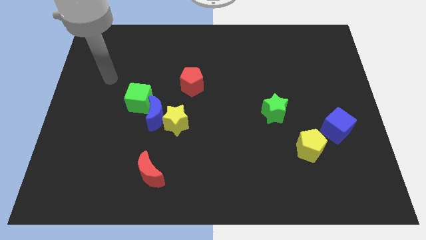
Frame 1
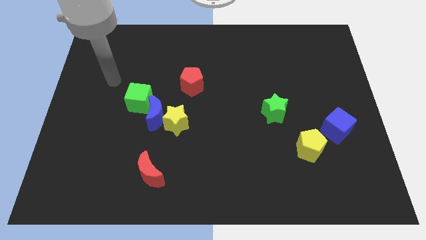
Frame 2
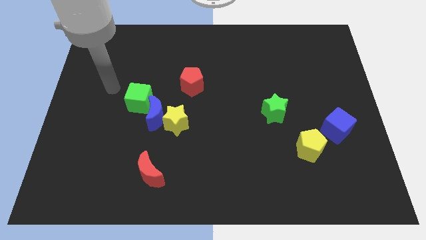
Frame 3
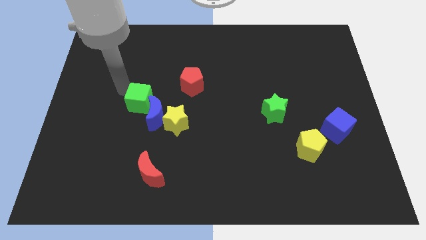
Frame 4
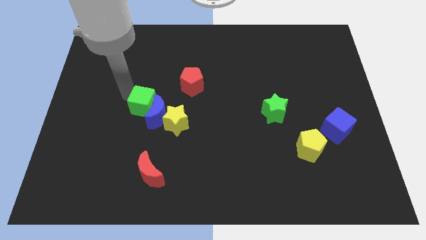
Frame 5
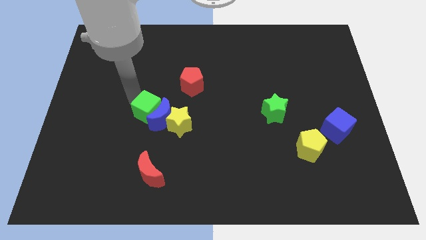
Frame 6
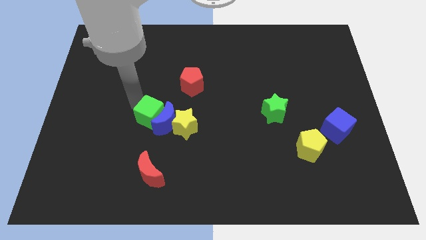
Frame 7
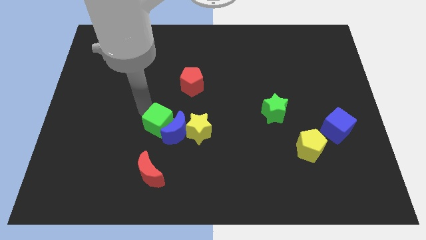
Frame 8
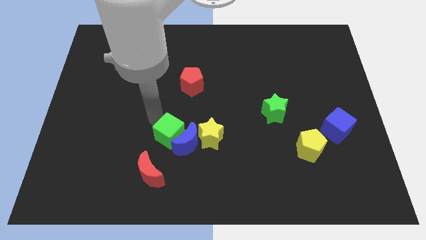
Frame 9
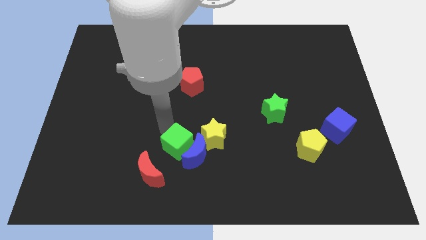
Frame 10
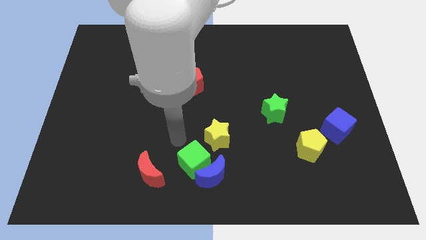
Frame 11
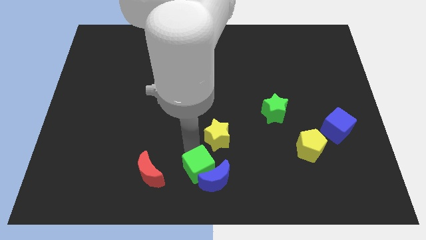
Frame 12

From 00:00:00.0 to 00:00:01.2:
move the yellow star away from the blue moon

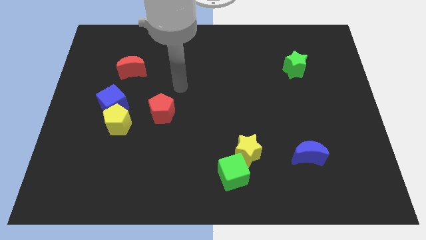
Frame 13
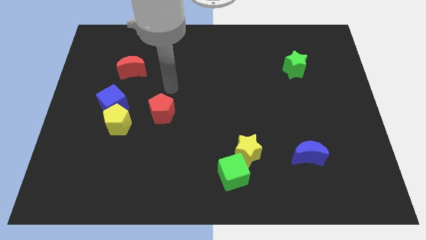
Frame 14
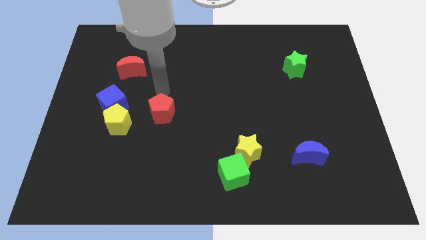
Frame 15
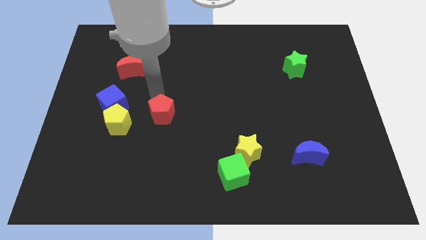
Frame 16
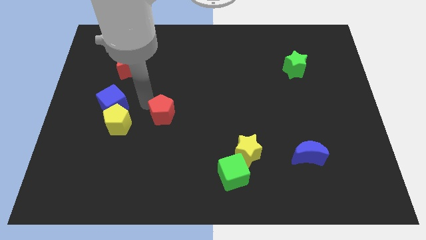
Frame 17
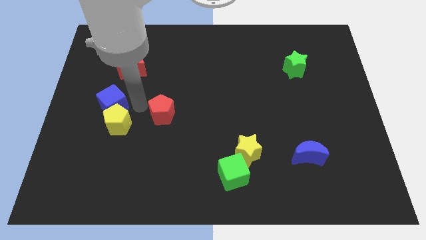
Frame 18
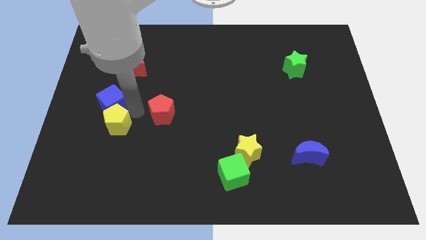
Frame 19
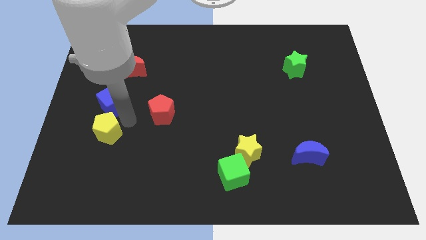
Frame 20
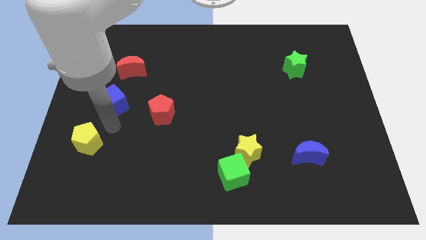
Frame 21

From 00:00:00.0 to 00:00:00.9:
move the blue cube away from the yellow pentagon

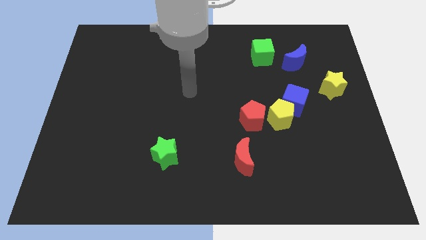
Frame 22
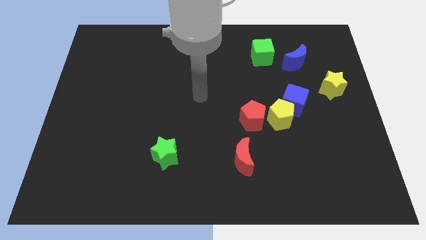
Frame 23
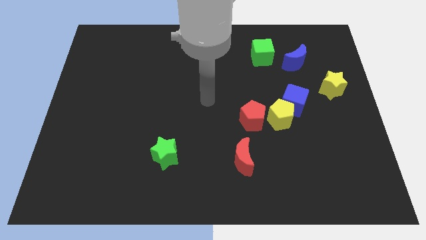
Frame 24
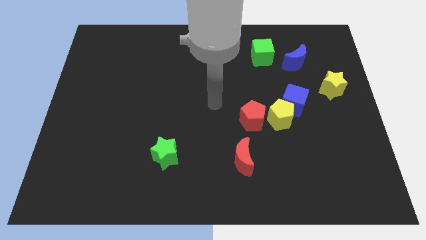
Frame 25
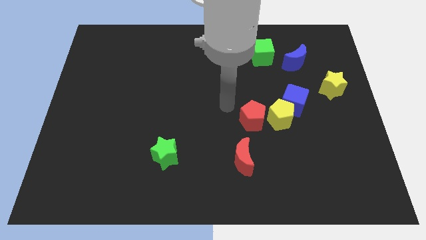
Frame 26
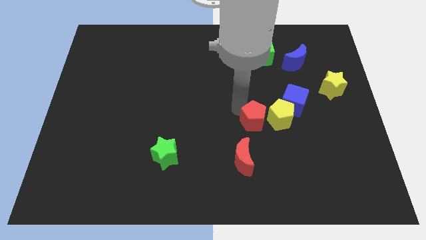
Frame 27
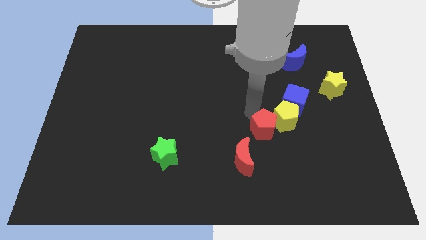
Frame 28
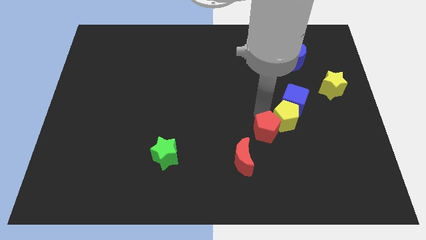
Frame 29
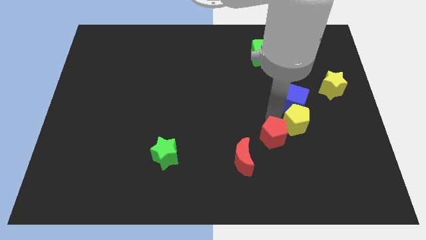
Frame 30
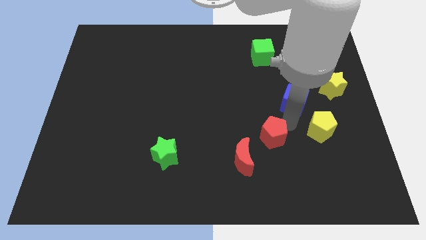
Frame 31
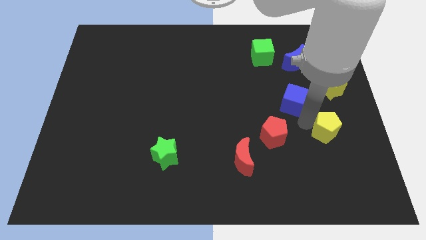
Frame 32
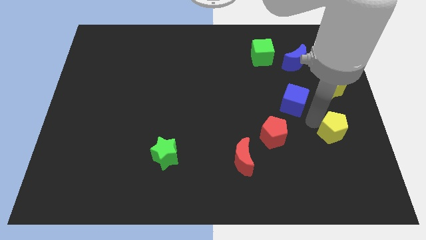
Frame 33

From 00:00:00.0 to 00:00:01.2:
separate the blue cube from the yellow pentagon

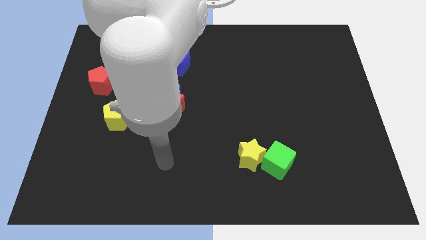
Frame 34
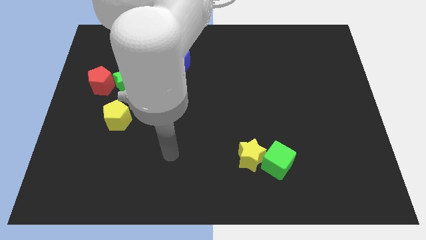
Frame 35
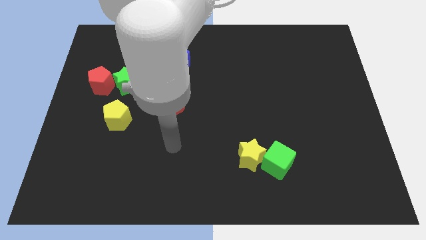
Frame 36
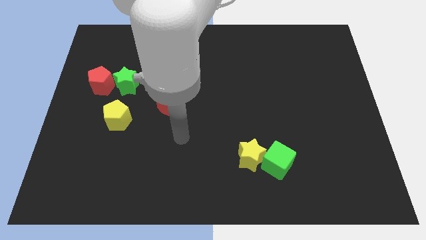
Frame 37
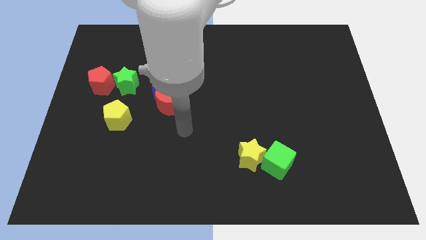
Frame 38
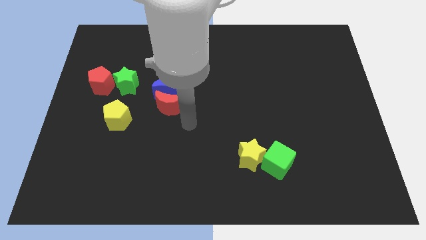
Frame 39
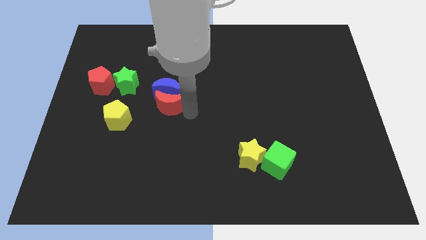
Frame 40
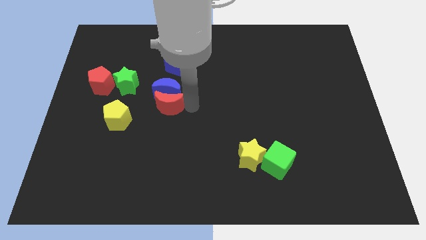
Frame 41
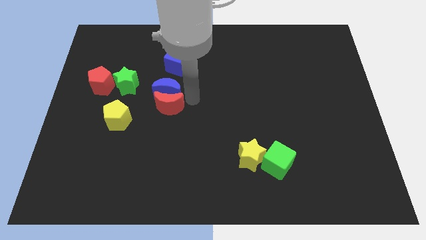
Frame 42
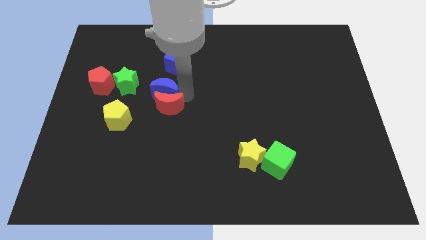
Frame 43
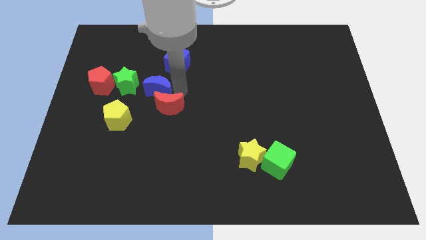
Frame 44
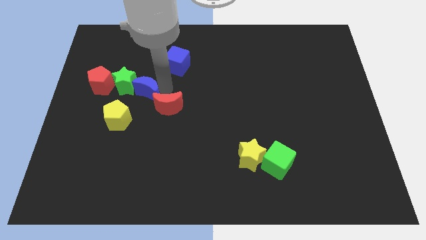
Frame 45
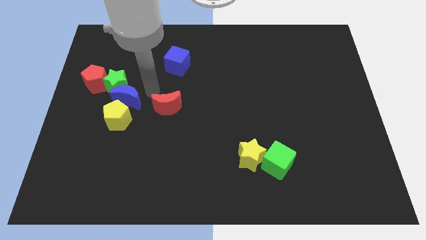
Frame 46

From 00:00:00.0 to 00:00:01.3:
pull the red moon apart from the blue moon

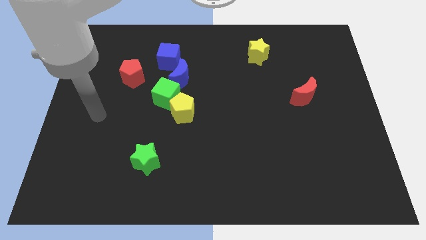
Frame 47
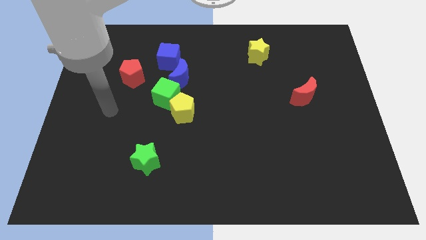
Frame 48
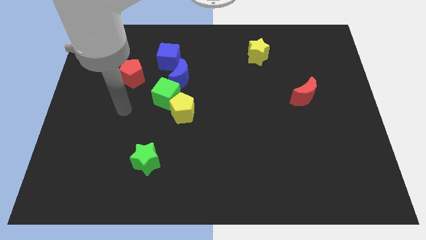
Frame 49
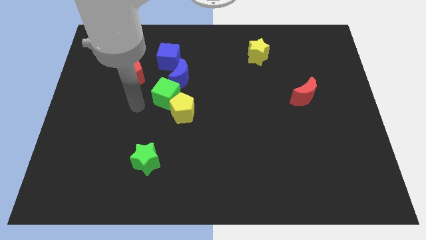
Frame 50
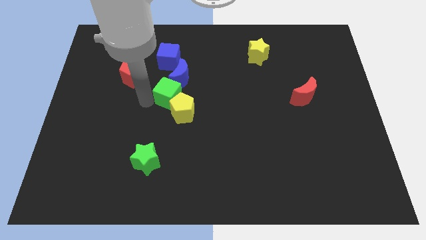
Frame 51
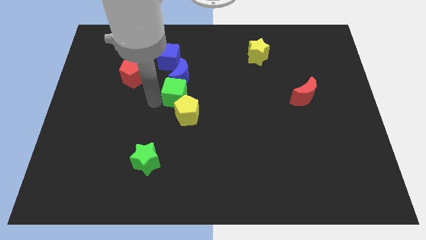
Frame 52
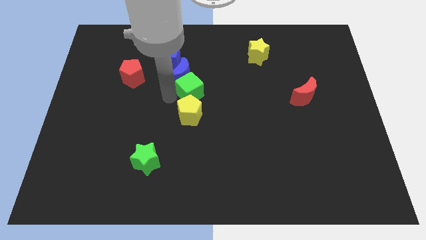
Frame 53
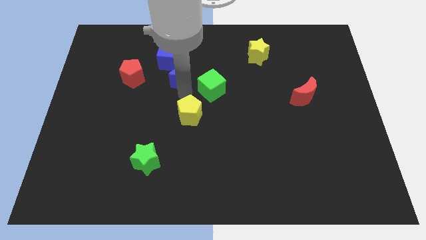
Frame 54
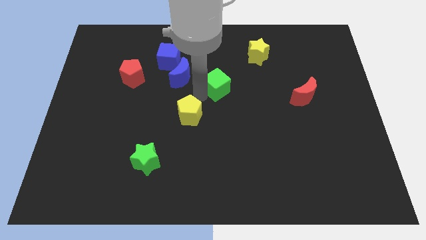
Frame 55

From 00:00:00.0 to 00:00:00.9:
pull the yellow pentagon apart from the green cube

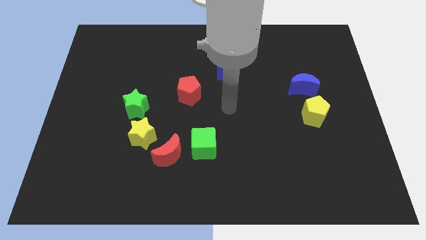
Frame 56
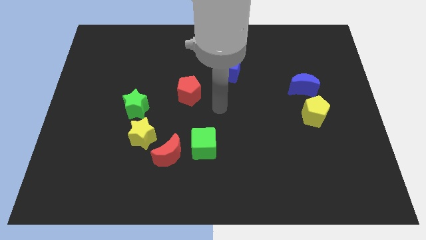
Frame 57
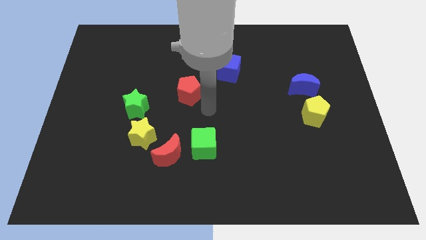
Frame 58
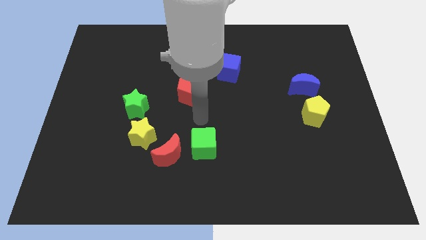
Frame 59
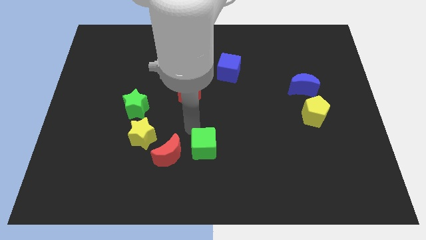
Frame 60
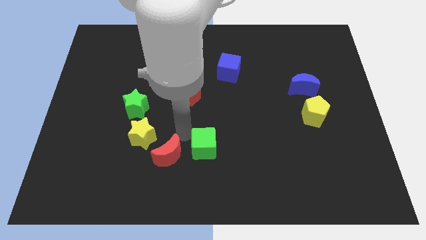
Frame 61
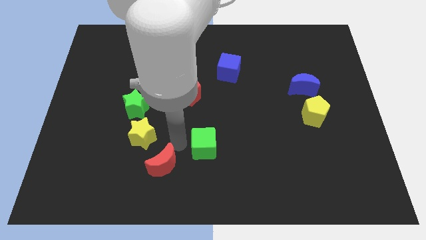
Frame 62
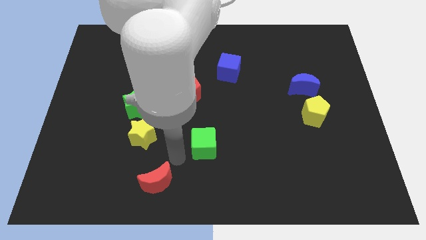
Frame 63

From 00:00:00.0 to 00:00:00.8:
pull the green cube apart from the red moon

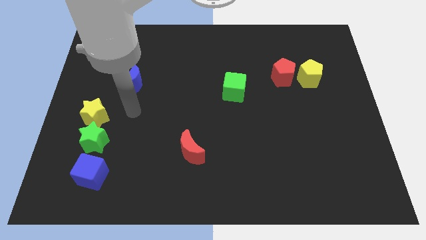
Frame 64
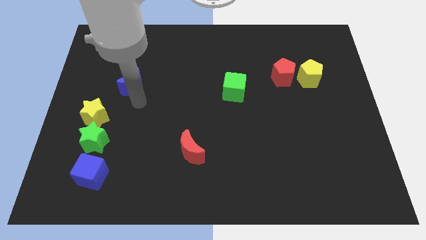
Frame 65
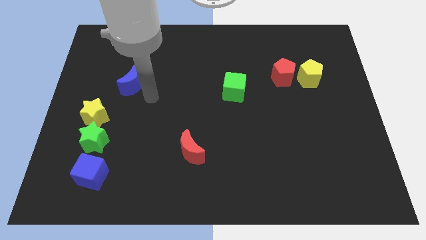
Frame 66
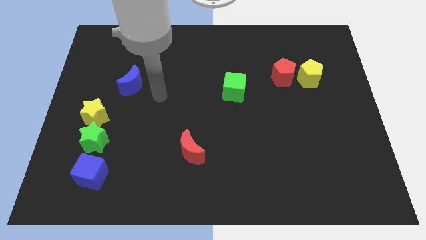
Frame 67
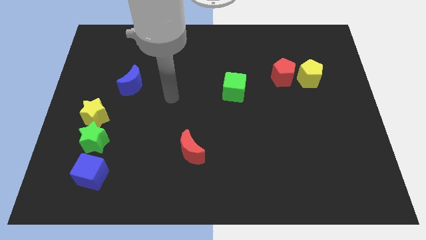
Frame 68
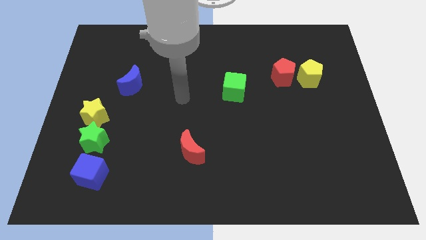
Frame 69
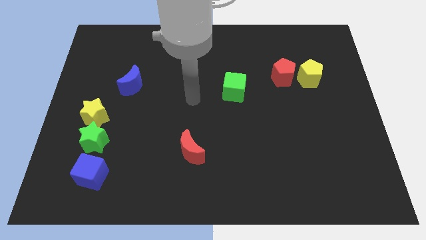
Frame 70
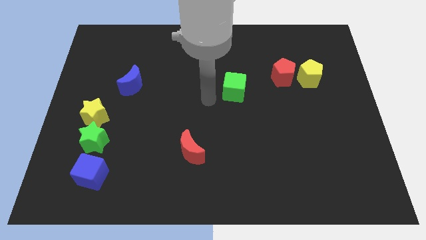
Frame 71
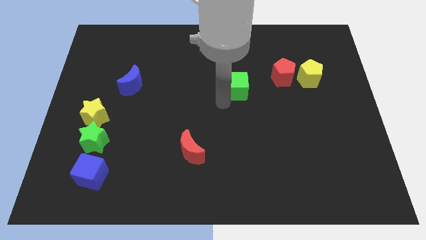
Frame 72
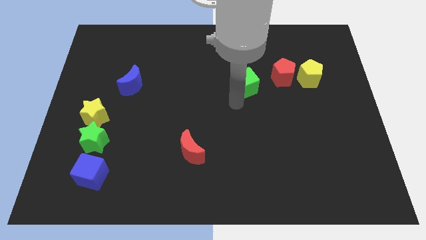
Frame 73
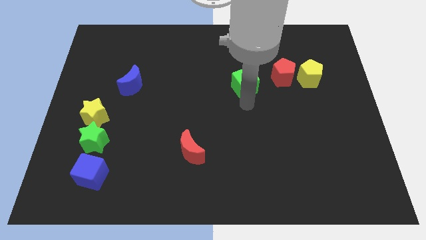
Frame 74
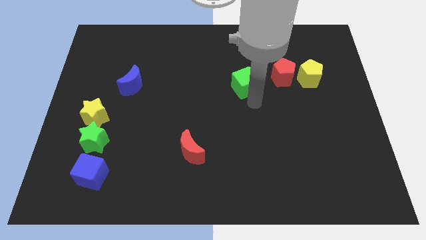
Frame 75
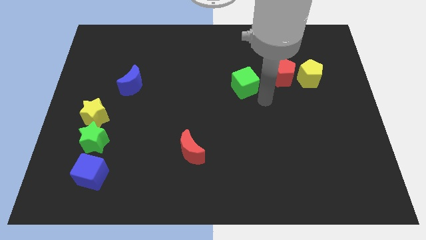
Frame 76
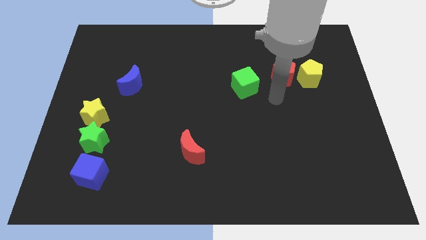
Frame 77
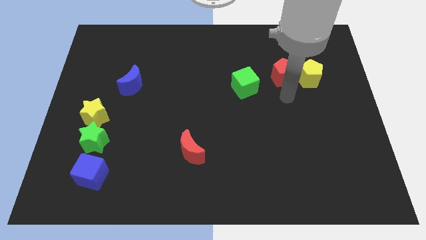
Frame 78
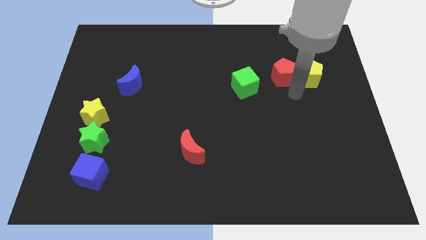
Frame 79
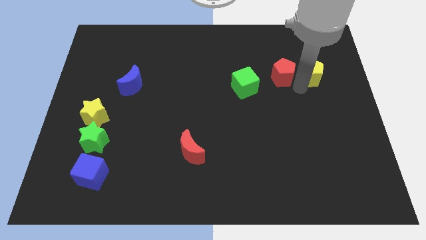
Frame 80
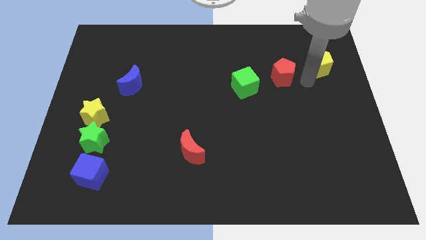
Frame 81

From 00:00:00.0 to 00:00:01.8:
separate the red pentagon from the yellow pentagon

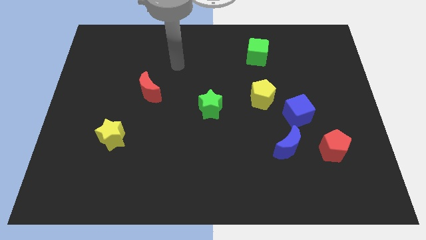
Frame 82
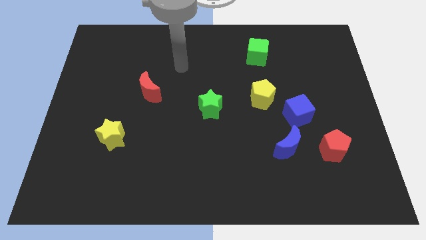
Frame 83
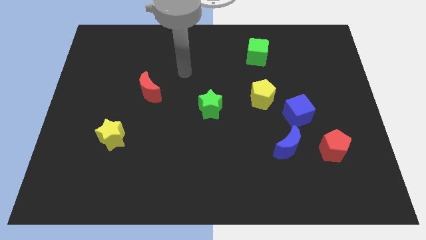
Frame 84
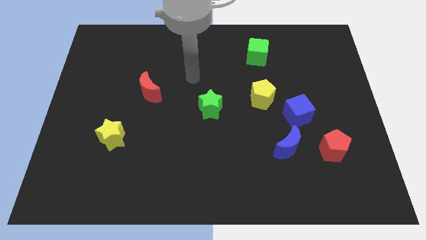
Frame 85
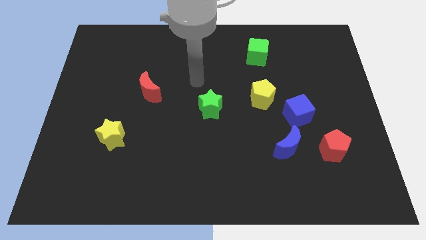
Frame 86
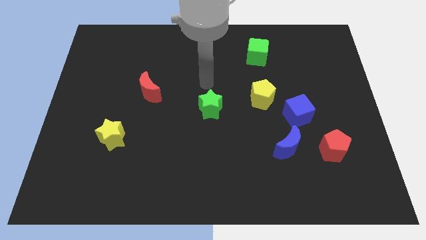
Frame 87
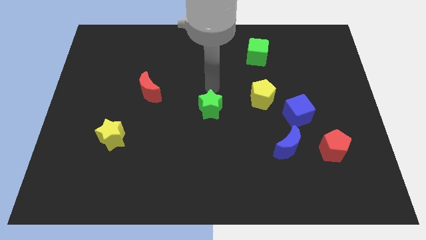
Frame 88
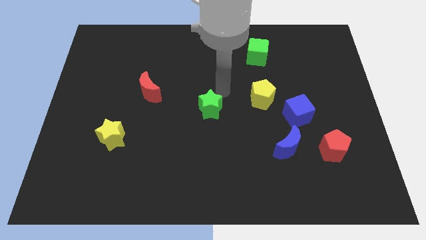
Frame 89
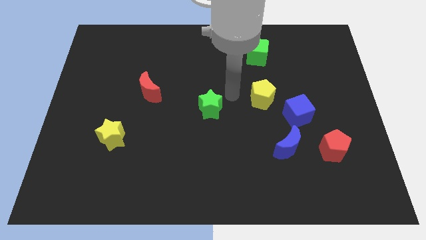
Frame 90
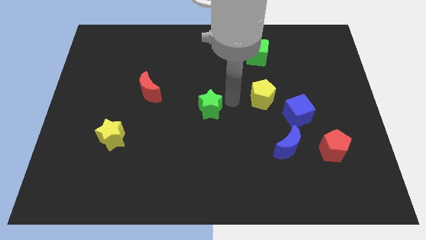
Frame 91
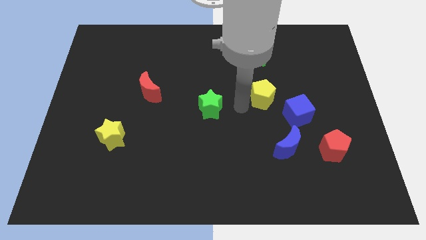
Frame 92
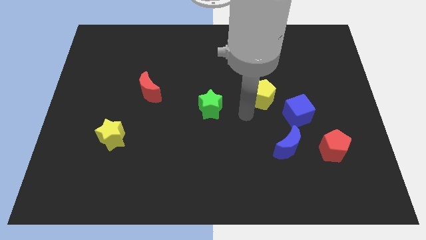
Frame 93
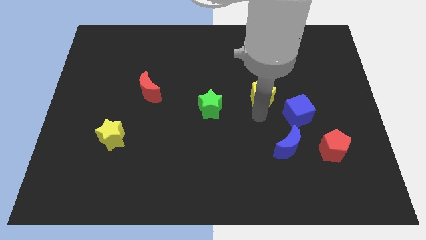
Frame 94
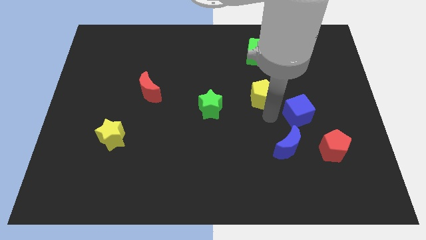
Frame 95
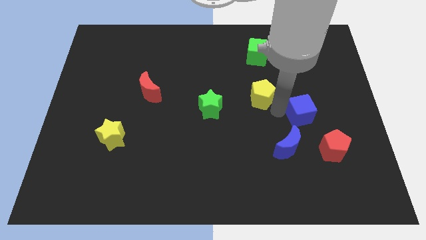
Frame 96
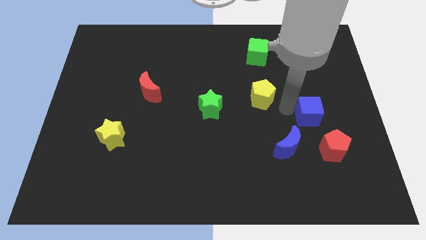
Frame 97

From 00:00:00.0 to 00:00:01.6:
move the yellow pentagon away from the blue cube
